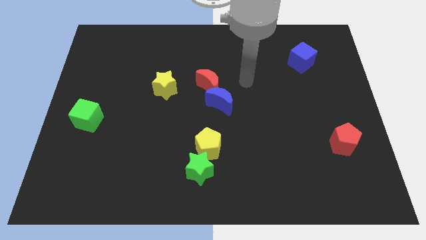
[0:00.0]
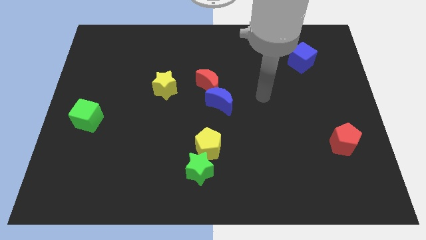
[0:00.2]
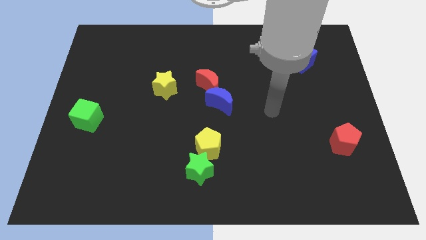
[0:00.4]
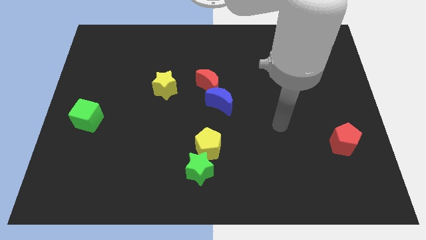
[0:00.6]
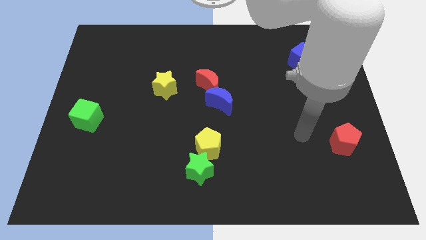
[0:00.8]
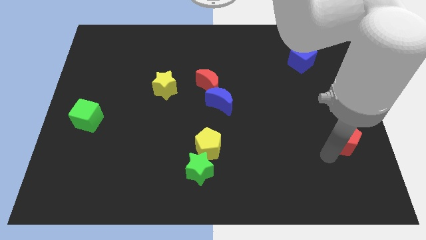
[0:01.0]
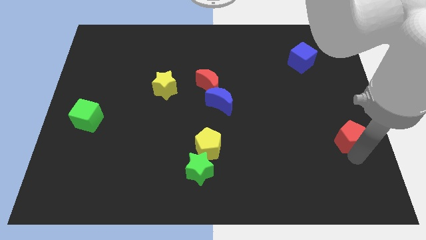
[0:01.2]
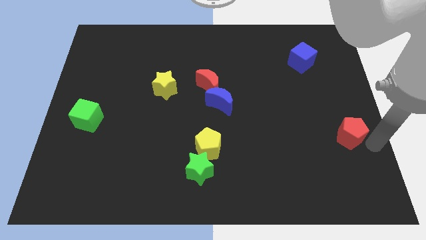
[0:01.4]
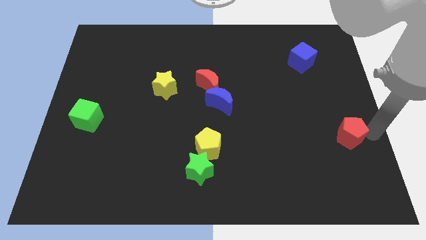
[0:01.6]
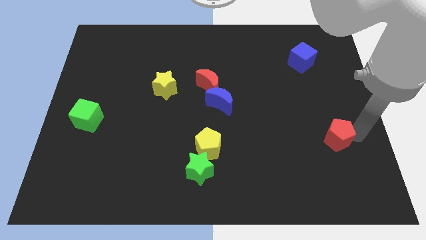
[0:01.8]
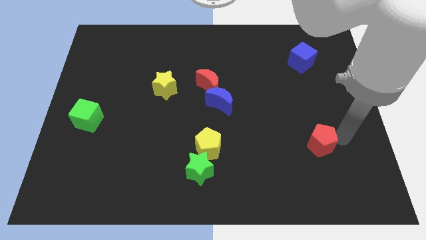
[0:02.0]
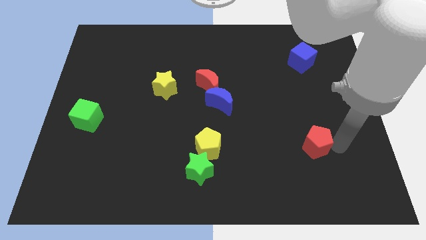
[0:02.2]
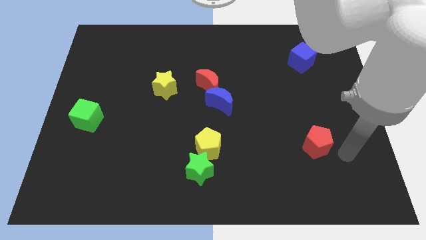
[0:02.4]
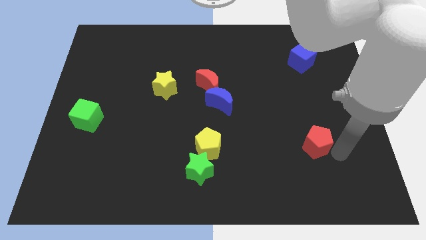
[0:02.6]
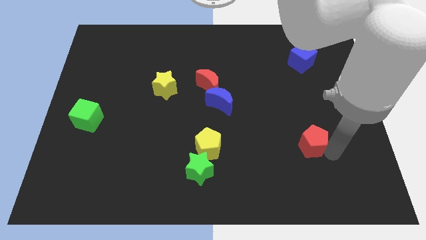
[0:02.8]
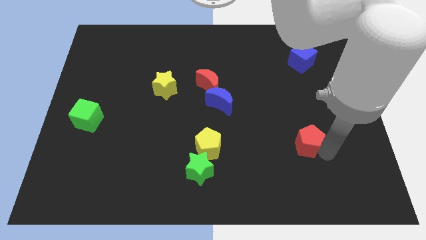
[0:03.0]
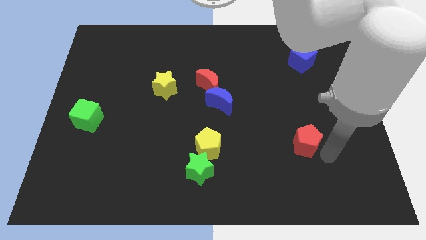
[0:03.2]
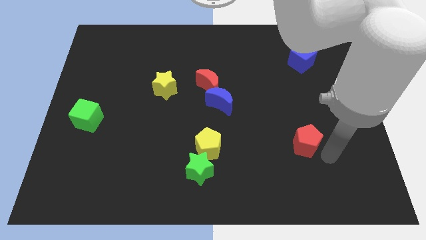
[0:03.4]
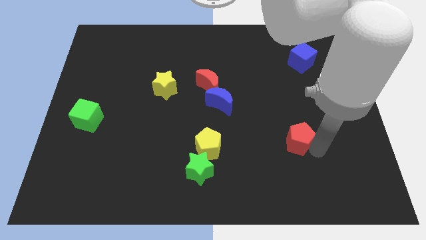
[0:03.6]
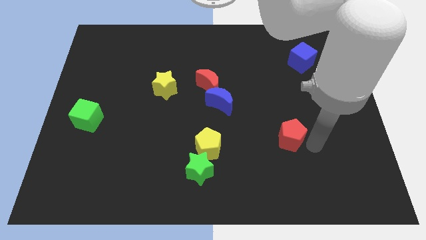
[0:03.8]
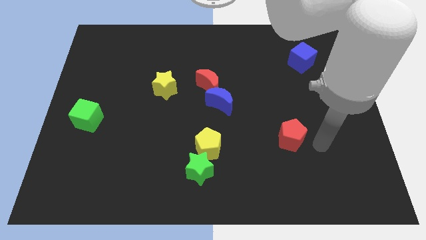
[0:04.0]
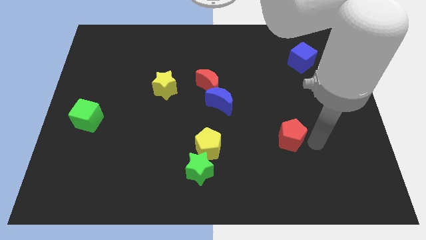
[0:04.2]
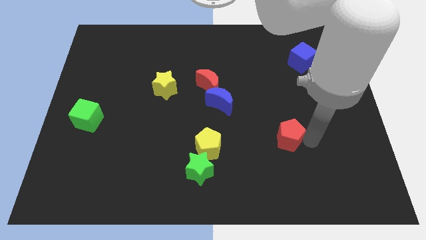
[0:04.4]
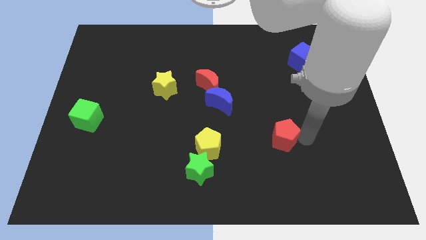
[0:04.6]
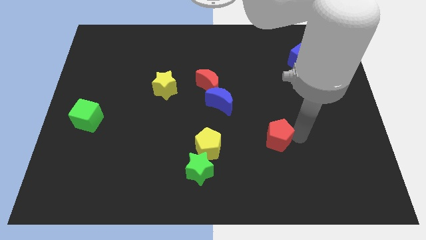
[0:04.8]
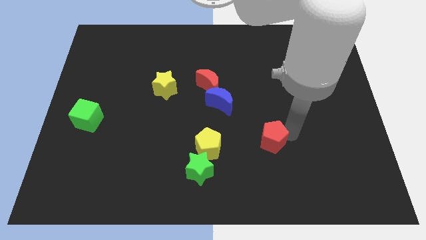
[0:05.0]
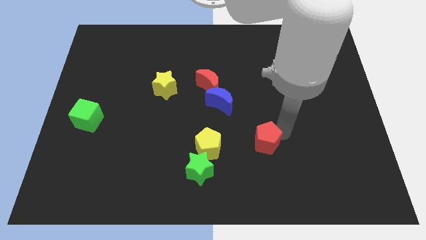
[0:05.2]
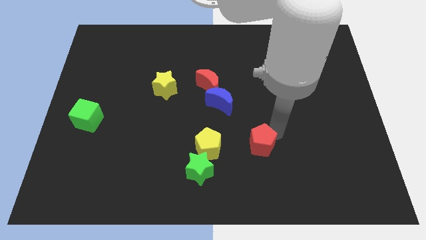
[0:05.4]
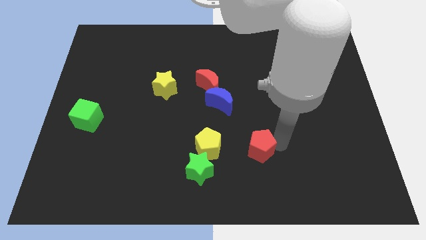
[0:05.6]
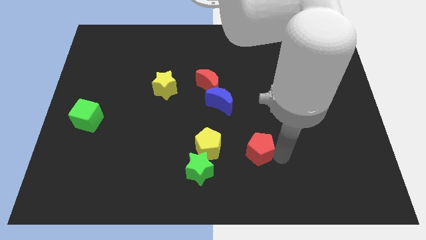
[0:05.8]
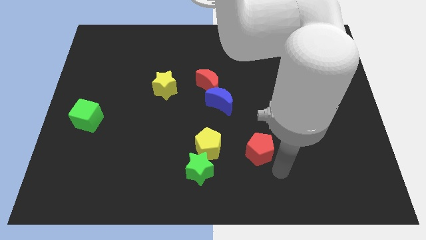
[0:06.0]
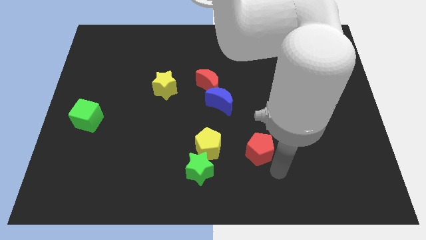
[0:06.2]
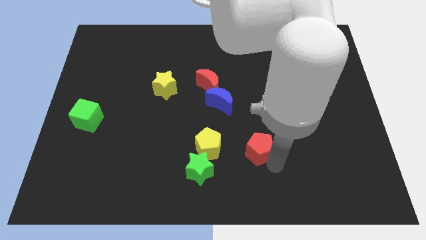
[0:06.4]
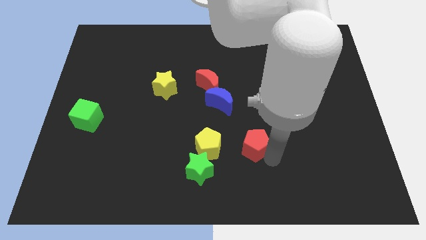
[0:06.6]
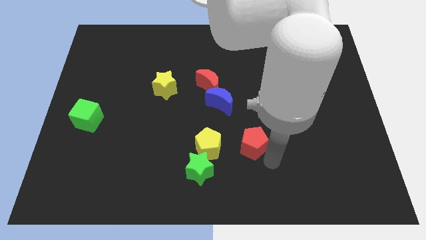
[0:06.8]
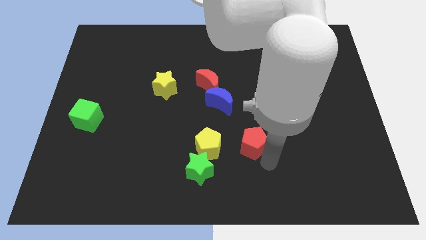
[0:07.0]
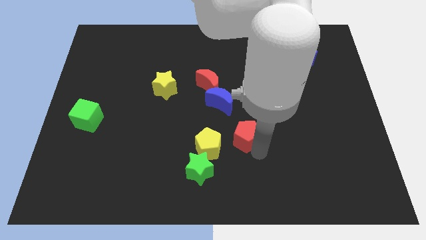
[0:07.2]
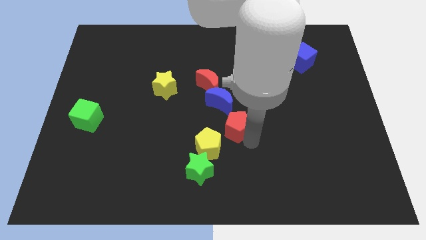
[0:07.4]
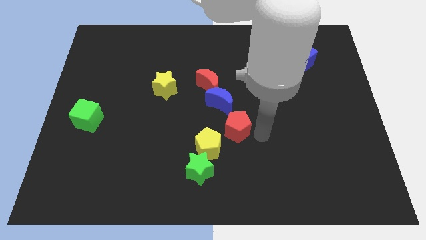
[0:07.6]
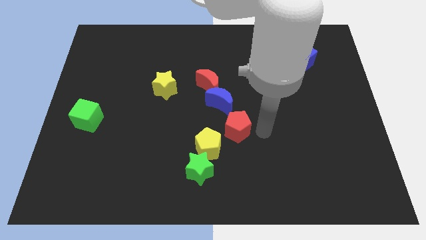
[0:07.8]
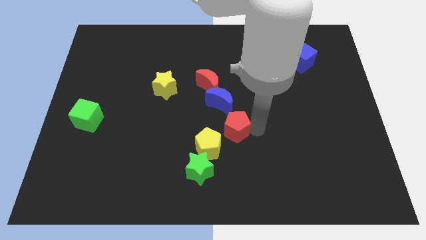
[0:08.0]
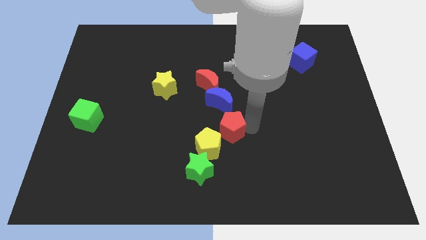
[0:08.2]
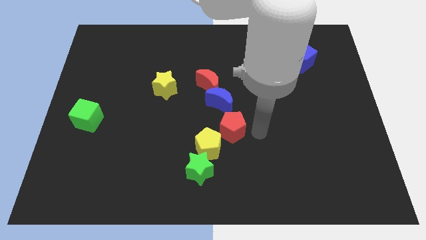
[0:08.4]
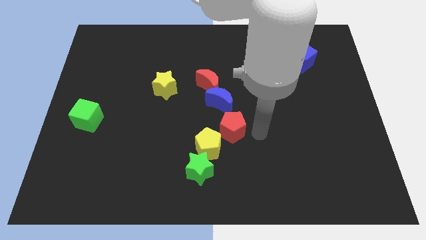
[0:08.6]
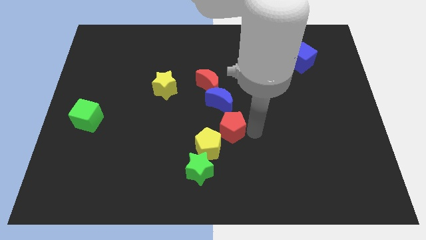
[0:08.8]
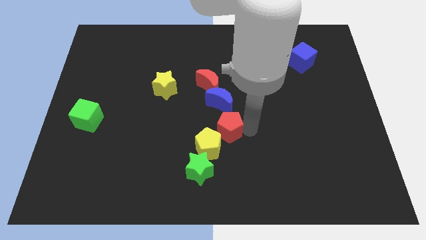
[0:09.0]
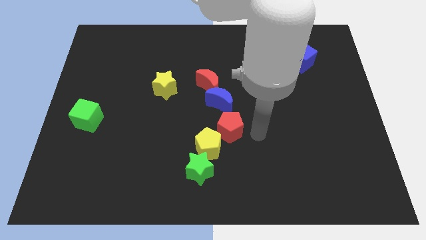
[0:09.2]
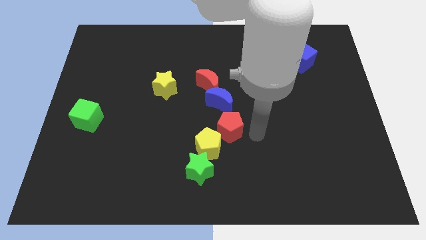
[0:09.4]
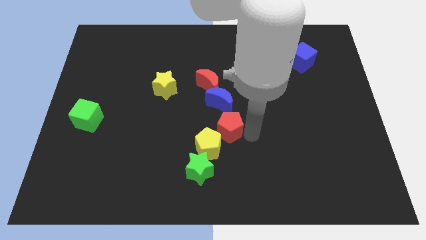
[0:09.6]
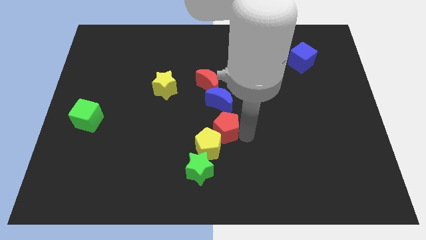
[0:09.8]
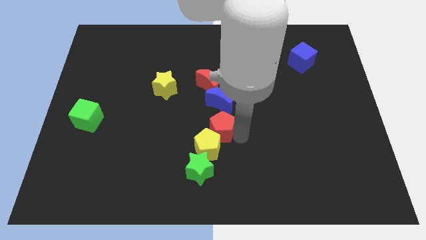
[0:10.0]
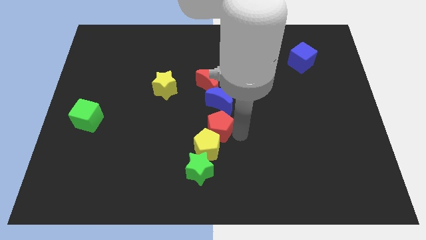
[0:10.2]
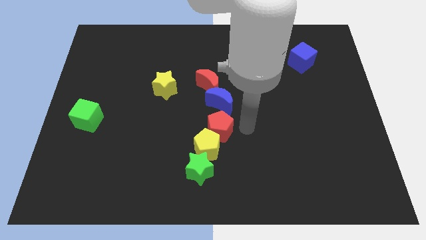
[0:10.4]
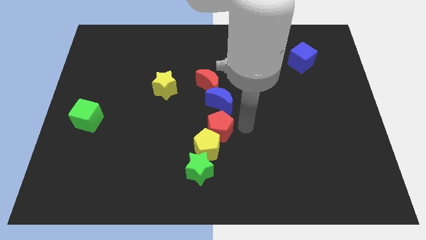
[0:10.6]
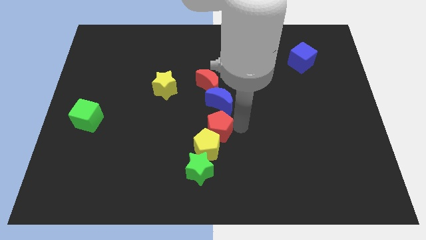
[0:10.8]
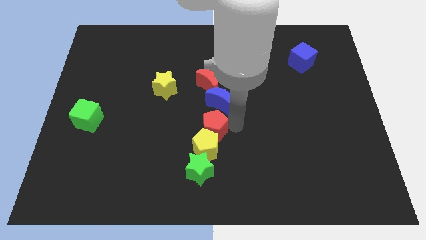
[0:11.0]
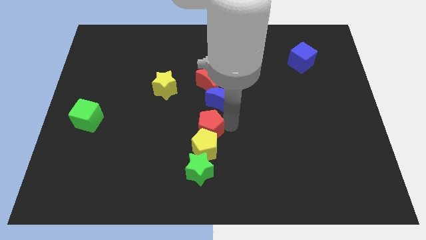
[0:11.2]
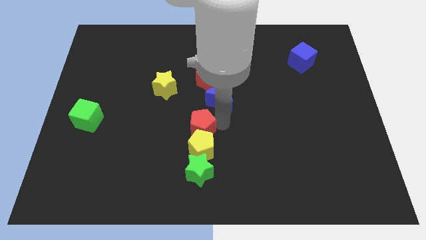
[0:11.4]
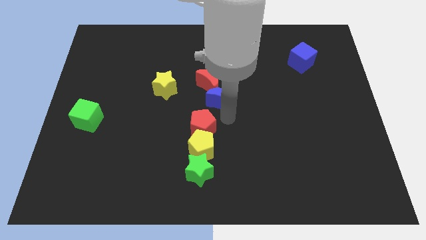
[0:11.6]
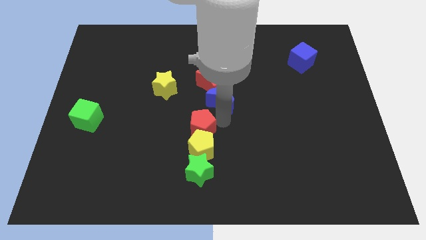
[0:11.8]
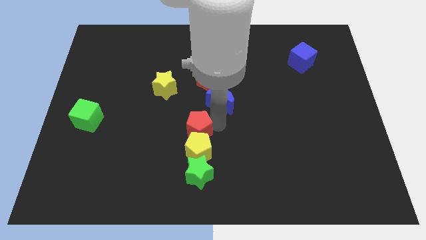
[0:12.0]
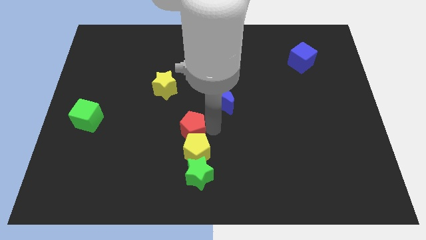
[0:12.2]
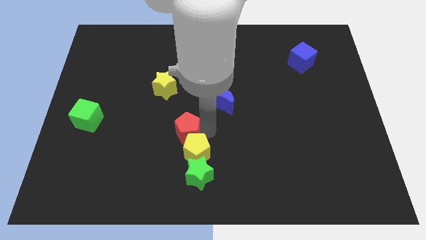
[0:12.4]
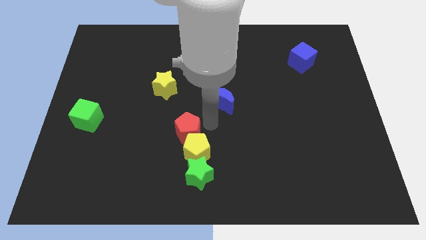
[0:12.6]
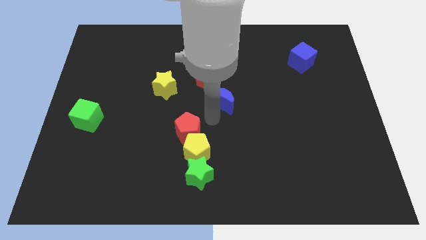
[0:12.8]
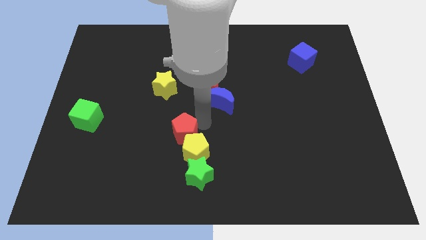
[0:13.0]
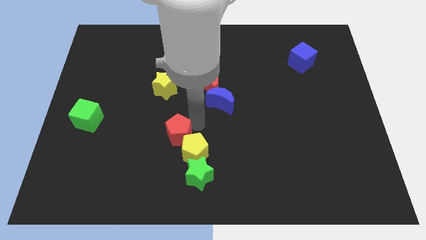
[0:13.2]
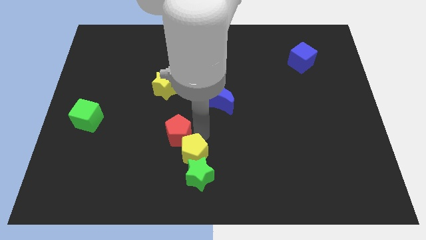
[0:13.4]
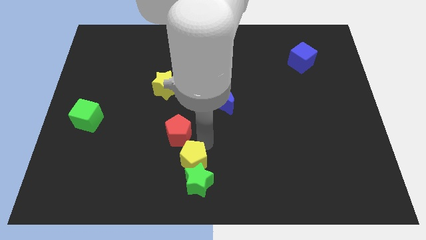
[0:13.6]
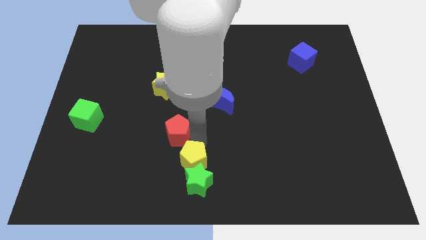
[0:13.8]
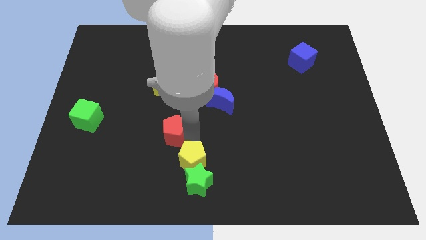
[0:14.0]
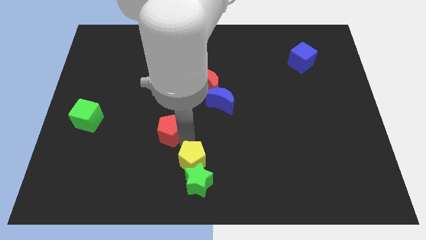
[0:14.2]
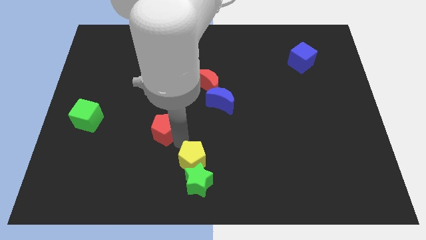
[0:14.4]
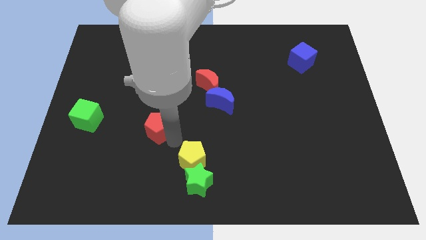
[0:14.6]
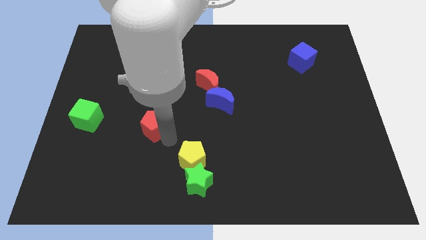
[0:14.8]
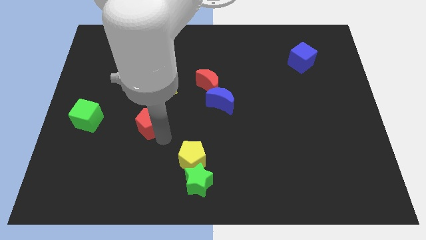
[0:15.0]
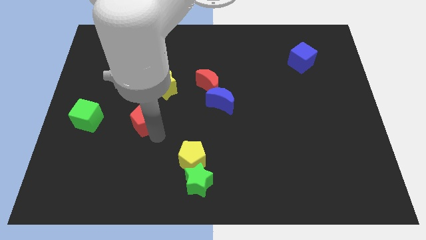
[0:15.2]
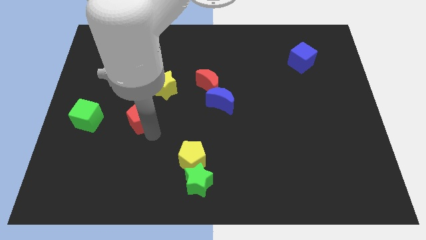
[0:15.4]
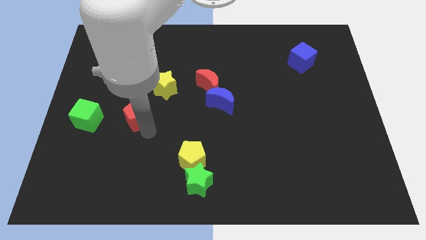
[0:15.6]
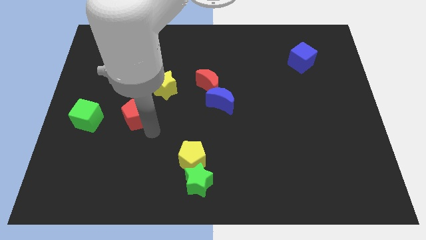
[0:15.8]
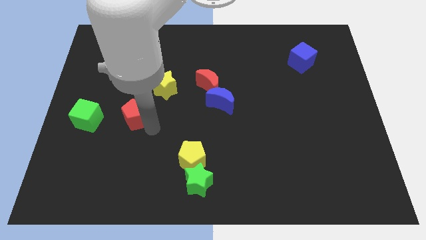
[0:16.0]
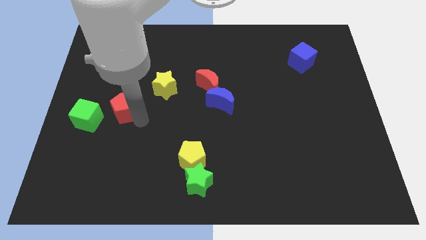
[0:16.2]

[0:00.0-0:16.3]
slide the red pentagon to the top right side of the green cube

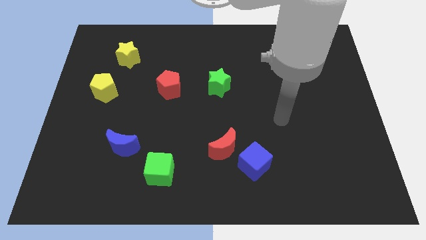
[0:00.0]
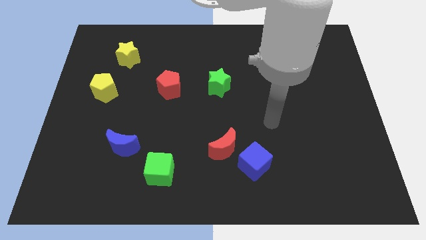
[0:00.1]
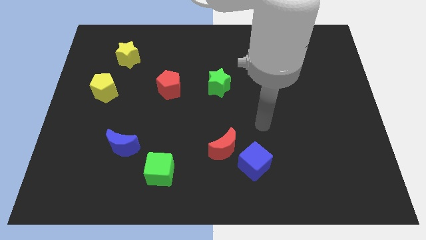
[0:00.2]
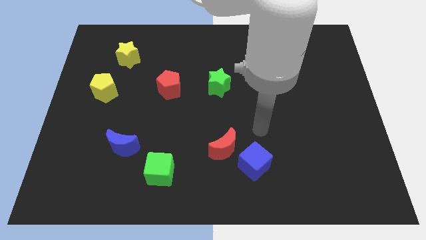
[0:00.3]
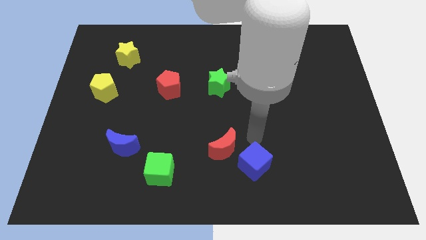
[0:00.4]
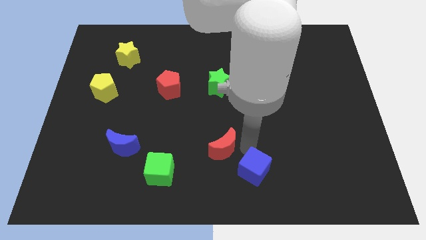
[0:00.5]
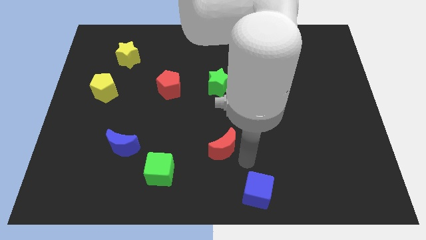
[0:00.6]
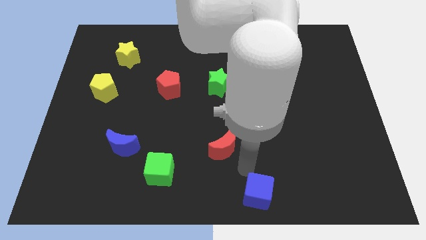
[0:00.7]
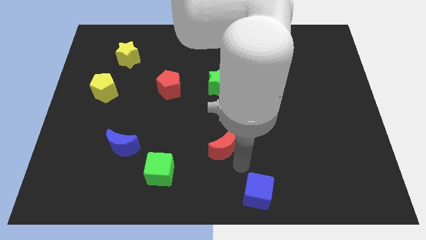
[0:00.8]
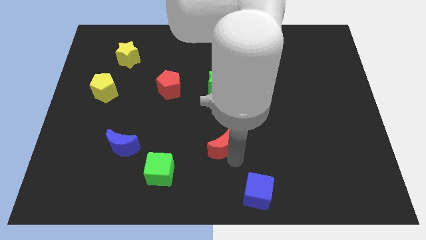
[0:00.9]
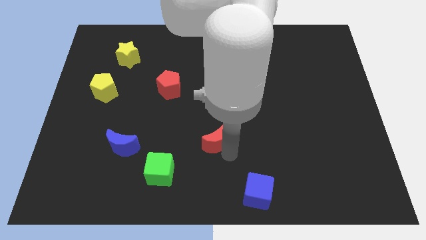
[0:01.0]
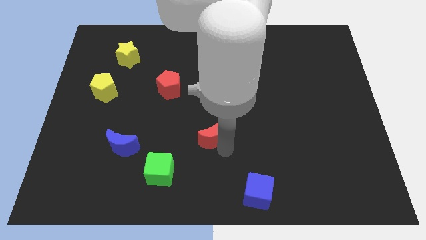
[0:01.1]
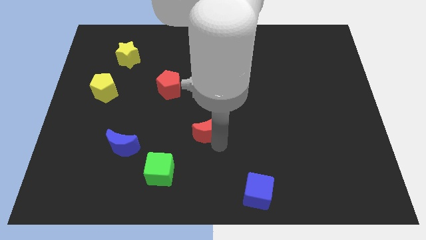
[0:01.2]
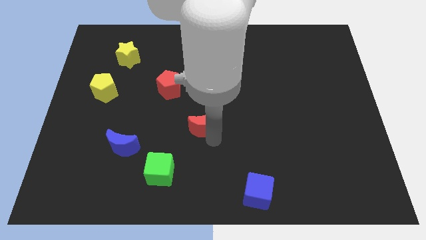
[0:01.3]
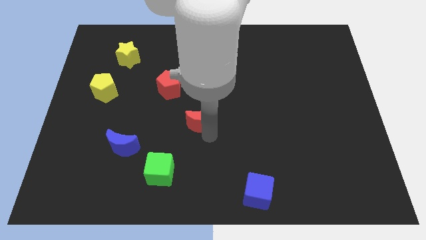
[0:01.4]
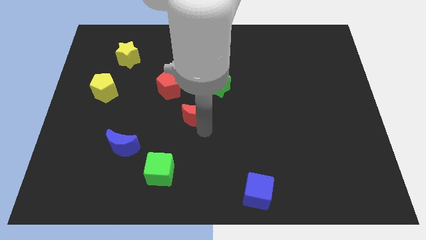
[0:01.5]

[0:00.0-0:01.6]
push the red moon to the bottom left side of the green star
